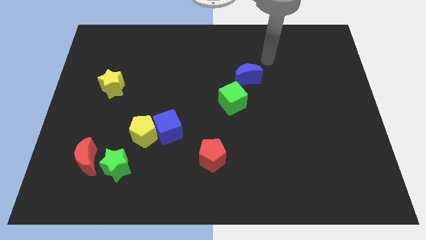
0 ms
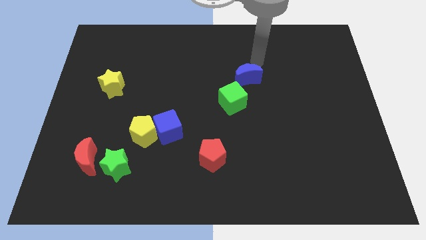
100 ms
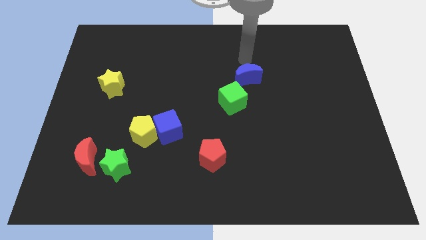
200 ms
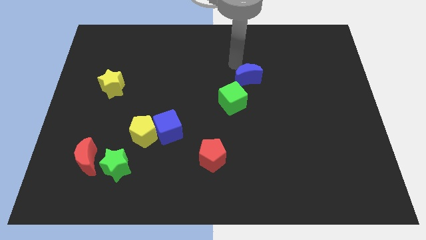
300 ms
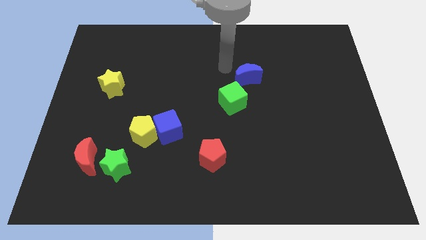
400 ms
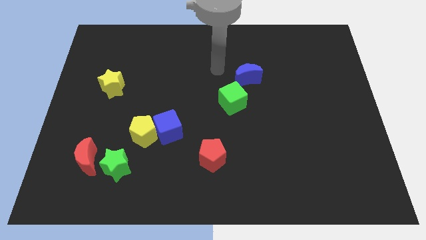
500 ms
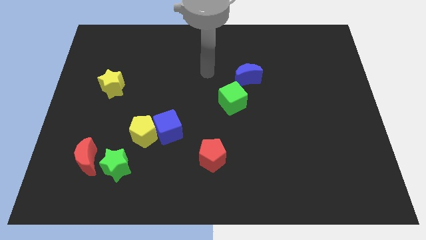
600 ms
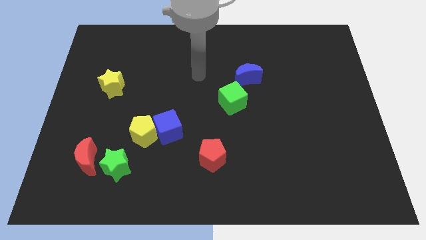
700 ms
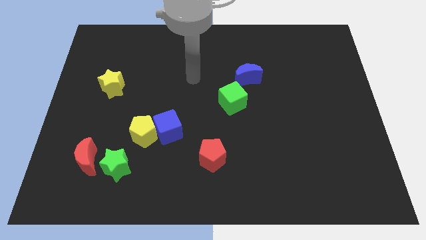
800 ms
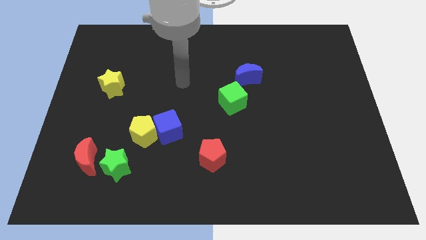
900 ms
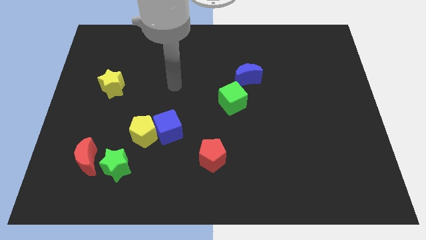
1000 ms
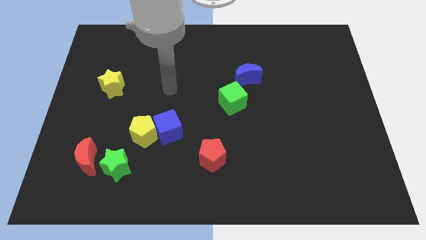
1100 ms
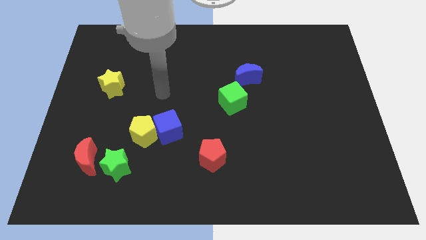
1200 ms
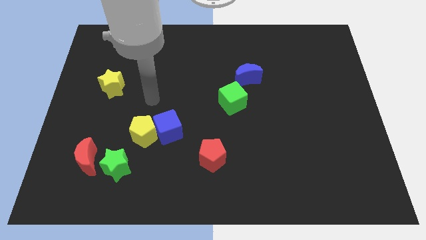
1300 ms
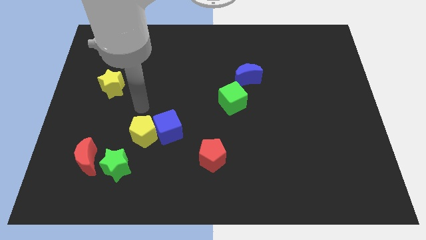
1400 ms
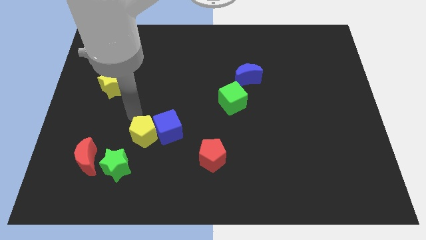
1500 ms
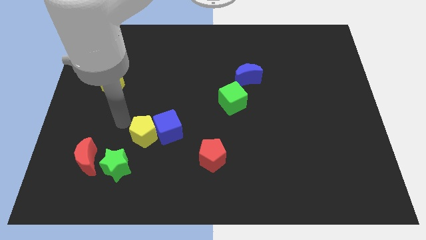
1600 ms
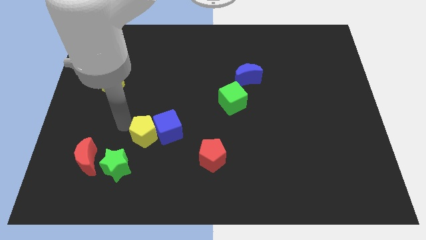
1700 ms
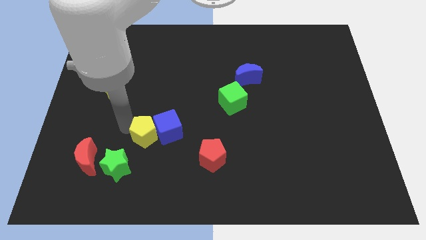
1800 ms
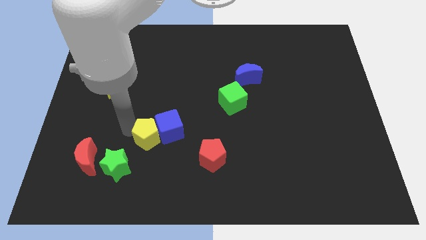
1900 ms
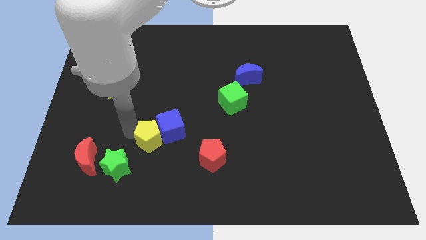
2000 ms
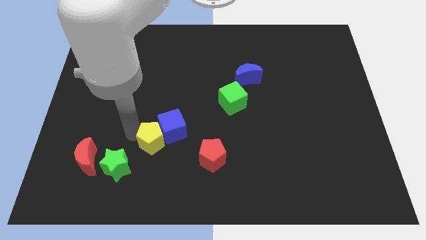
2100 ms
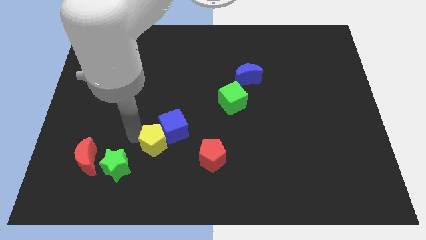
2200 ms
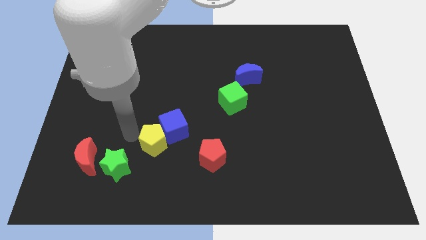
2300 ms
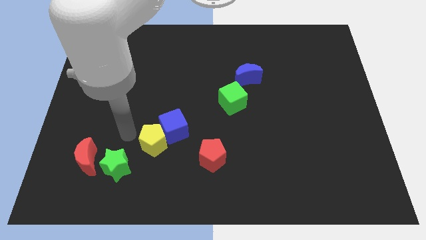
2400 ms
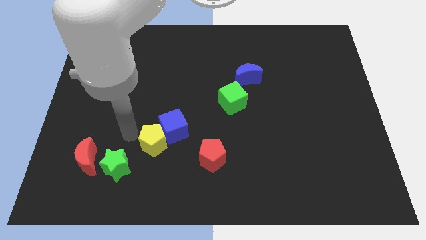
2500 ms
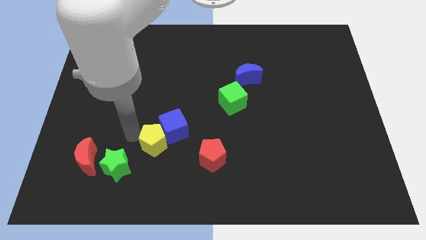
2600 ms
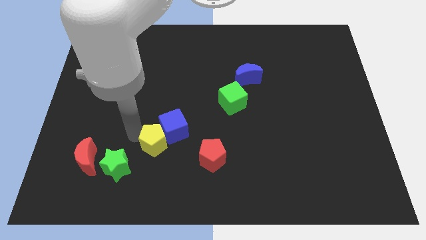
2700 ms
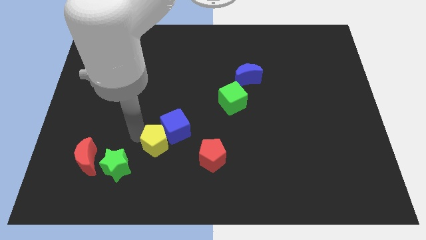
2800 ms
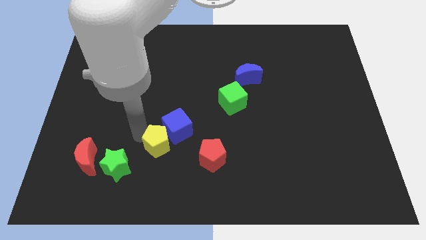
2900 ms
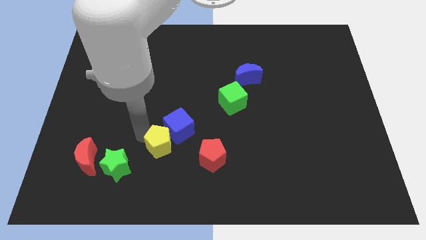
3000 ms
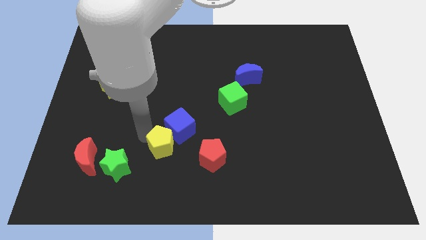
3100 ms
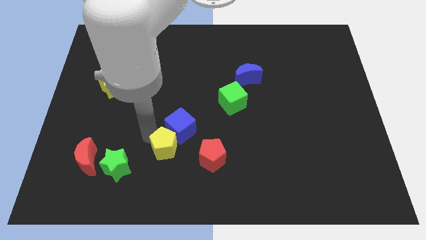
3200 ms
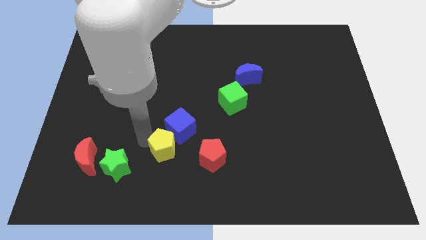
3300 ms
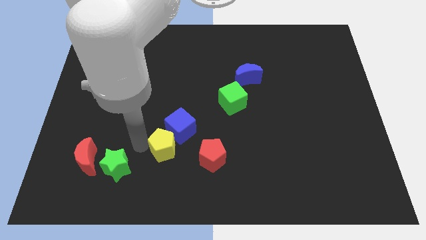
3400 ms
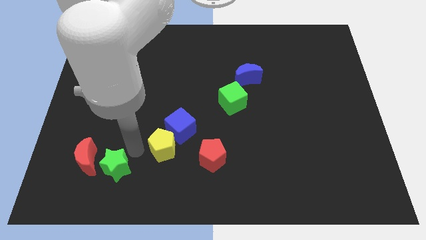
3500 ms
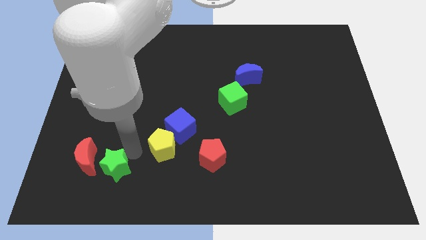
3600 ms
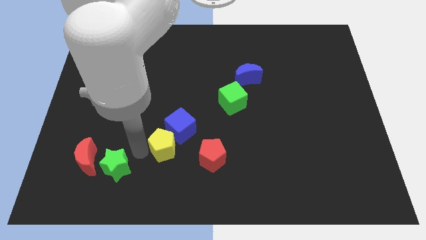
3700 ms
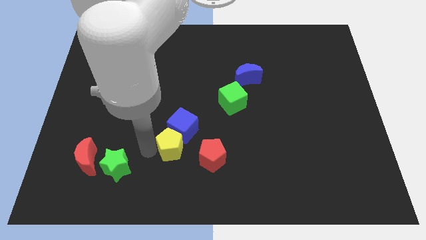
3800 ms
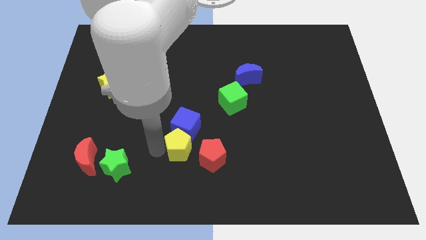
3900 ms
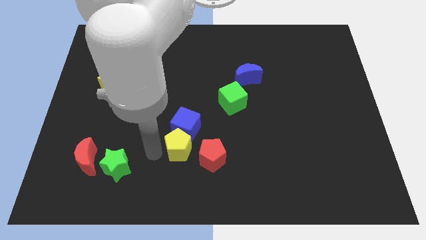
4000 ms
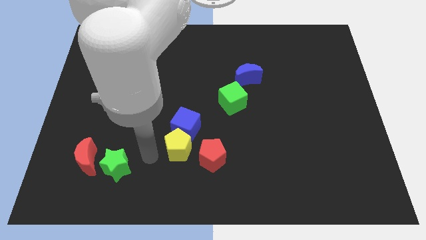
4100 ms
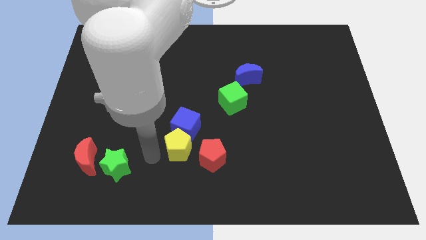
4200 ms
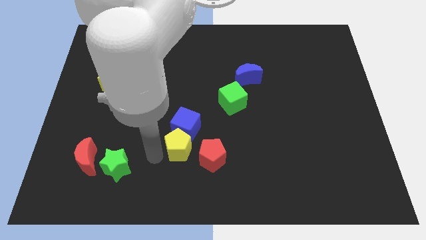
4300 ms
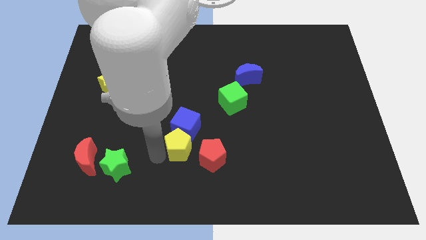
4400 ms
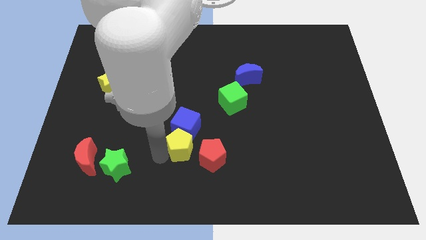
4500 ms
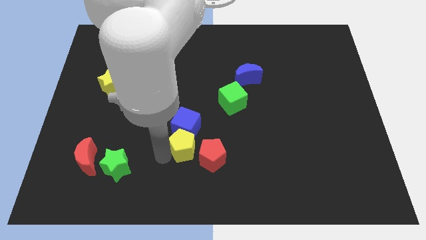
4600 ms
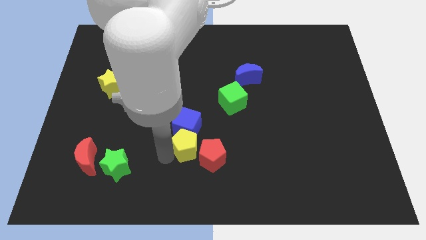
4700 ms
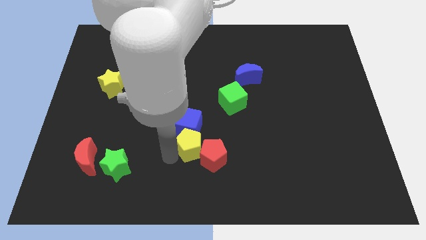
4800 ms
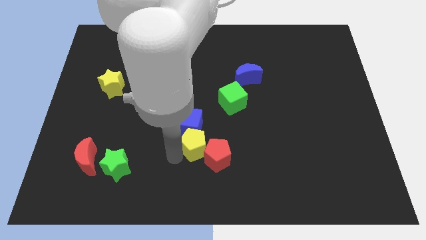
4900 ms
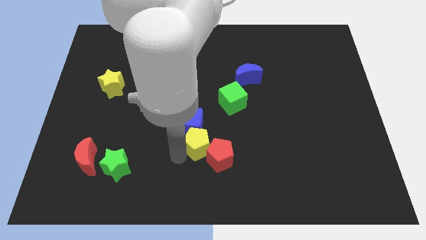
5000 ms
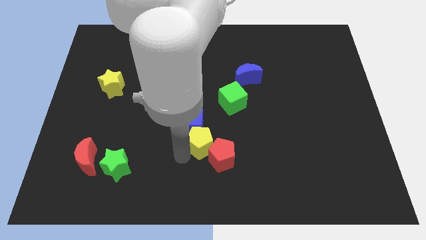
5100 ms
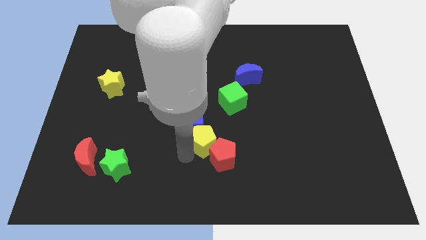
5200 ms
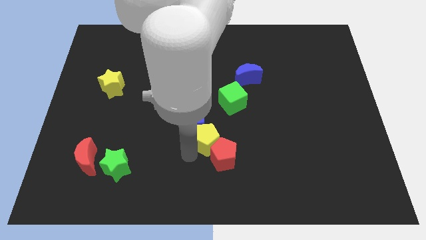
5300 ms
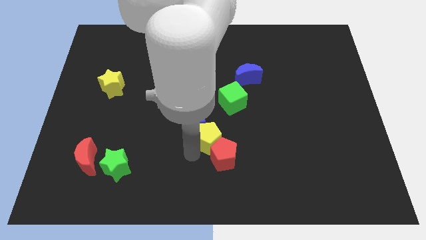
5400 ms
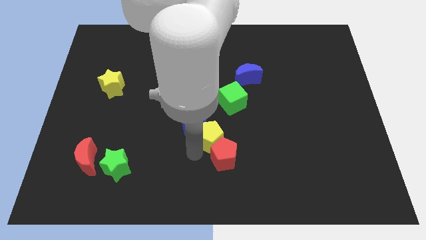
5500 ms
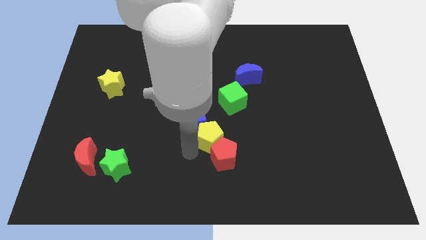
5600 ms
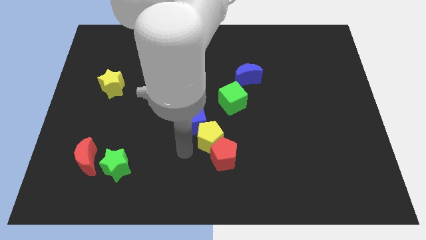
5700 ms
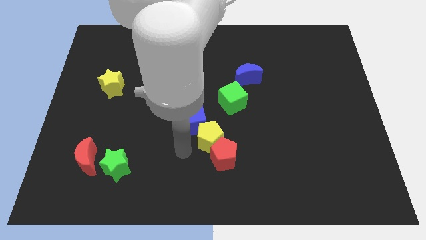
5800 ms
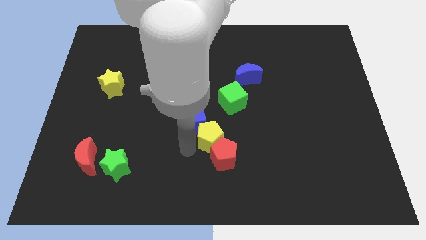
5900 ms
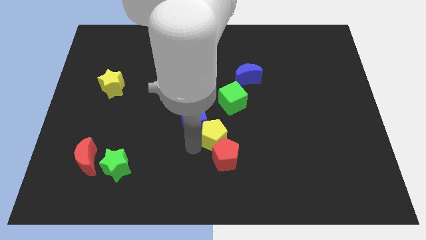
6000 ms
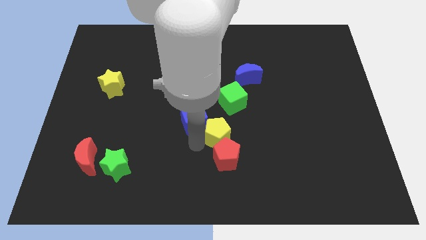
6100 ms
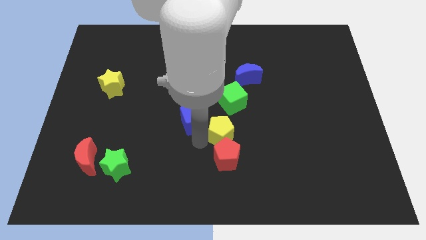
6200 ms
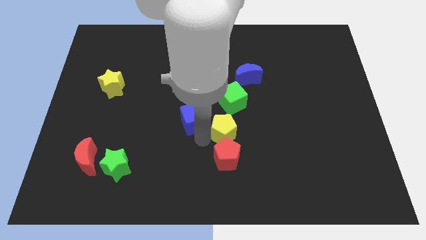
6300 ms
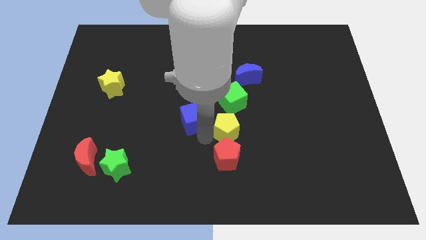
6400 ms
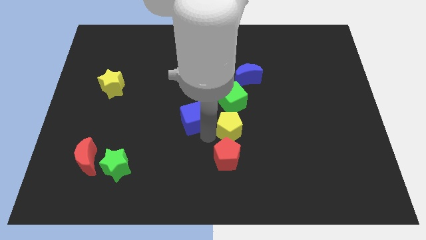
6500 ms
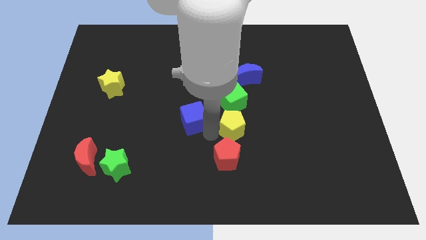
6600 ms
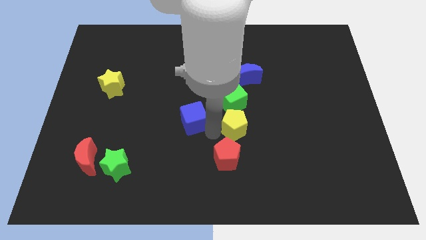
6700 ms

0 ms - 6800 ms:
move the yellow pentagon right

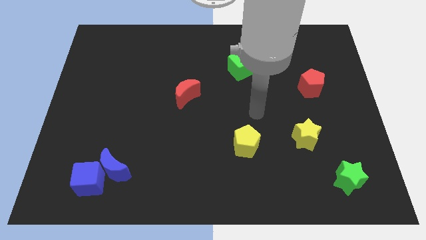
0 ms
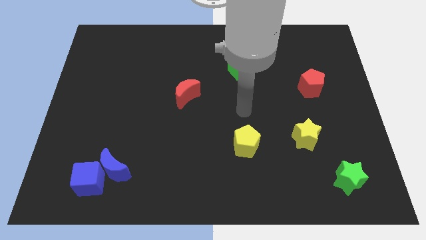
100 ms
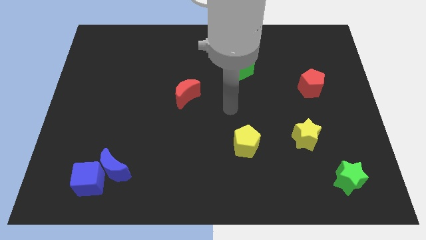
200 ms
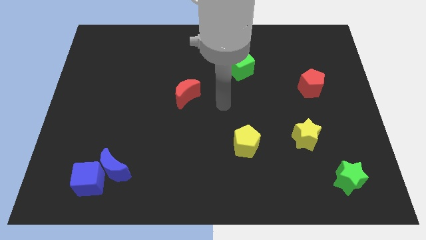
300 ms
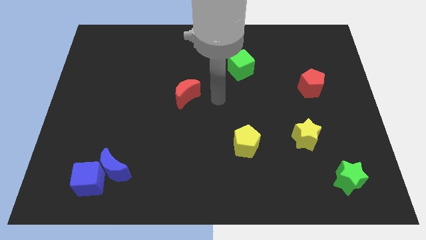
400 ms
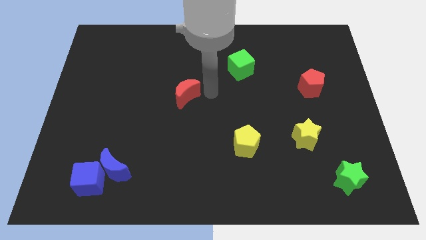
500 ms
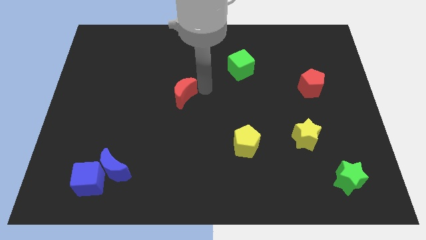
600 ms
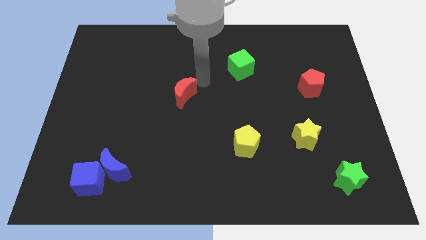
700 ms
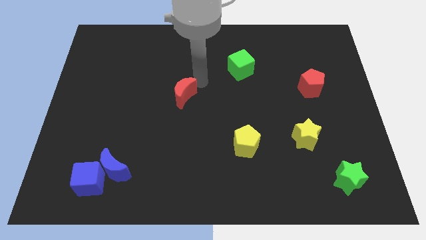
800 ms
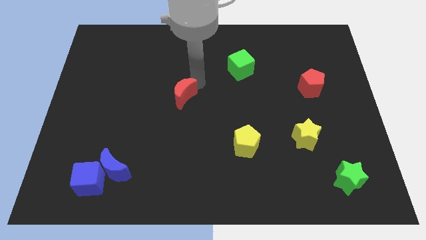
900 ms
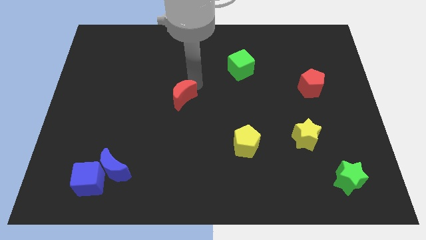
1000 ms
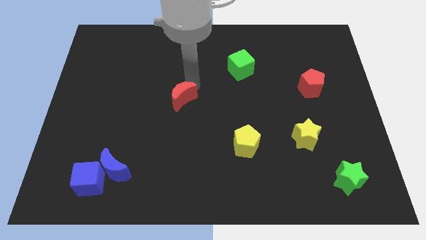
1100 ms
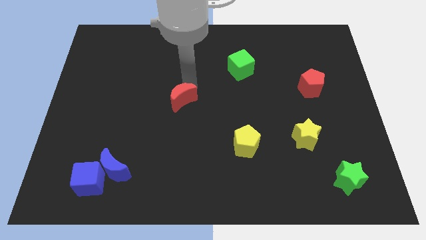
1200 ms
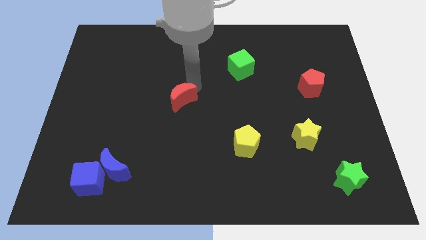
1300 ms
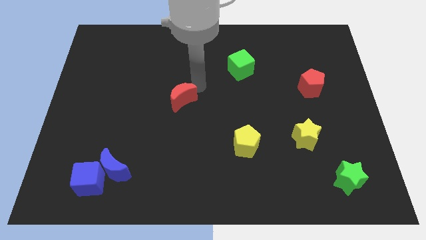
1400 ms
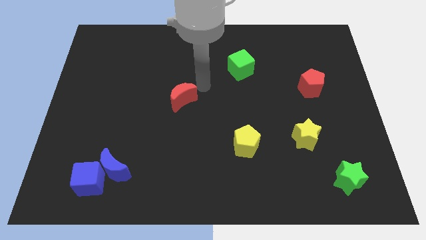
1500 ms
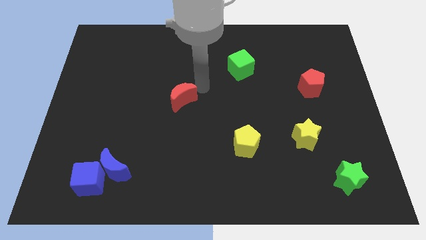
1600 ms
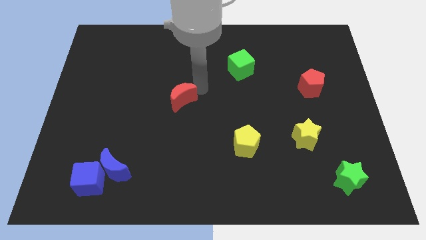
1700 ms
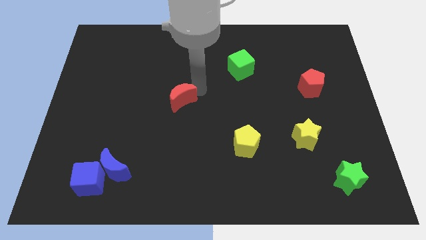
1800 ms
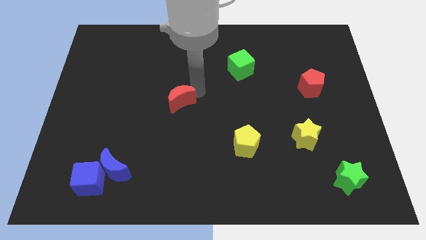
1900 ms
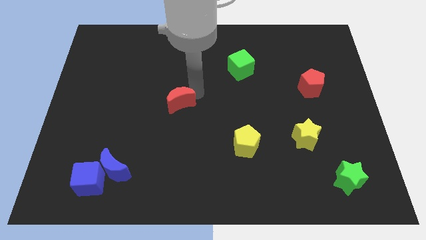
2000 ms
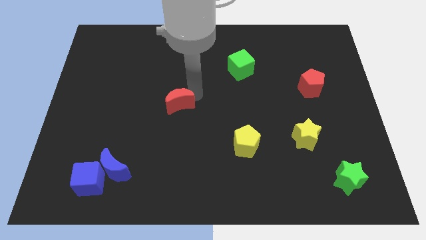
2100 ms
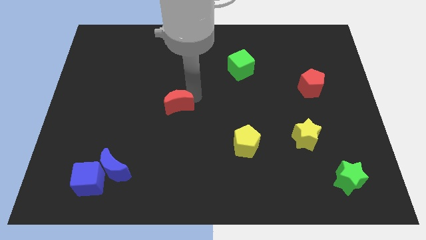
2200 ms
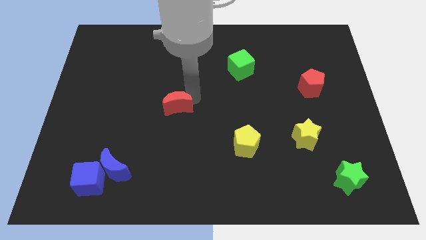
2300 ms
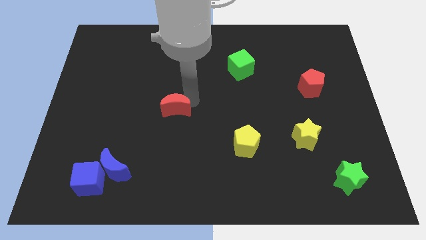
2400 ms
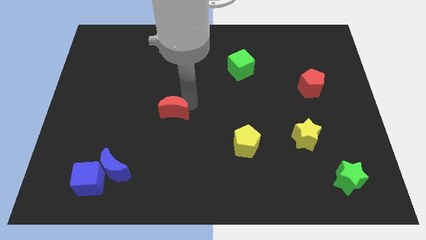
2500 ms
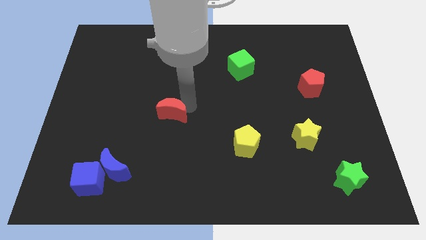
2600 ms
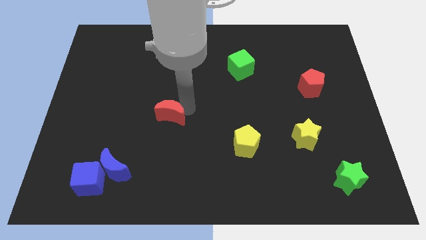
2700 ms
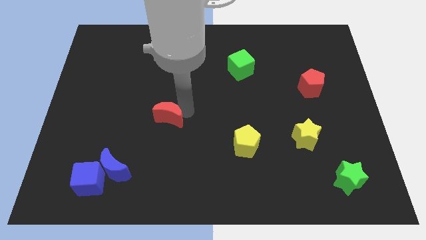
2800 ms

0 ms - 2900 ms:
move the red moon down and then left a little bit
